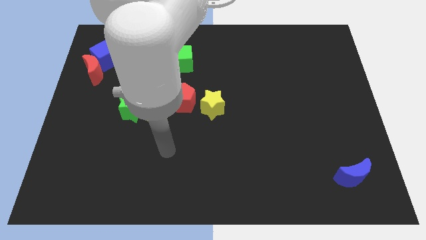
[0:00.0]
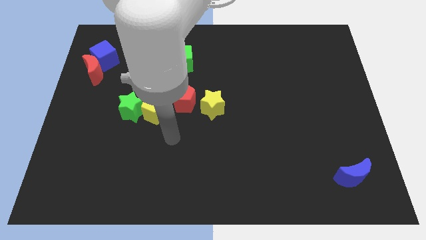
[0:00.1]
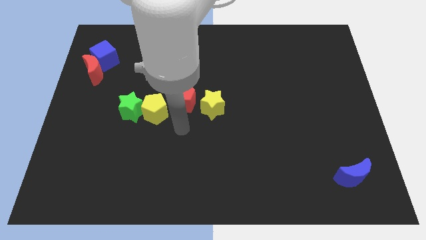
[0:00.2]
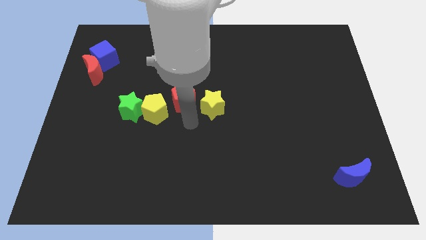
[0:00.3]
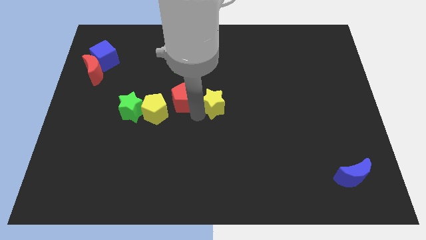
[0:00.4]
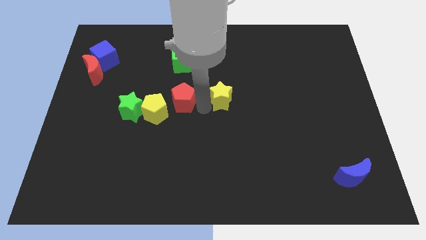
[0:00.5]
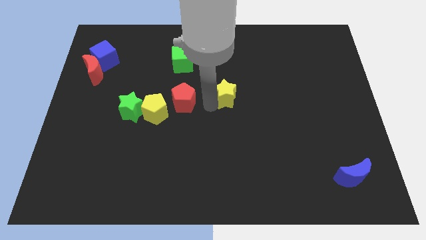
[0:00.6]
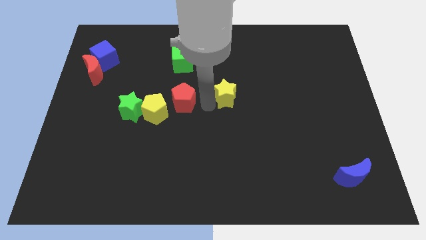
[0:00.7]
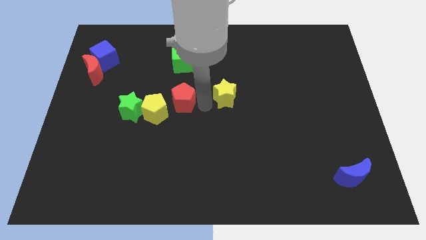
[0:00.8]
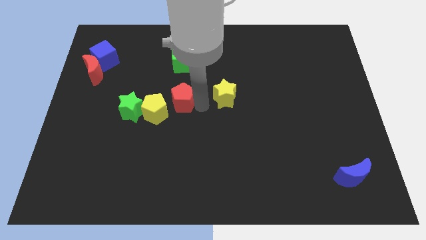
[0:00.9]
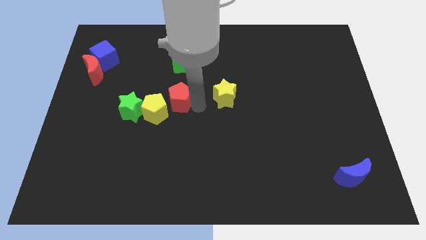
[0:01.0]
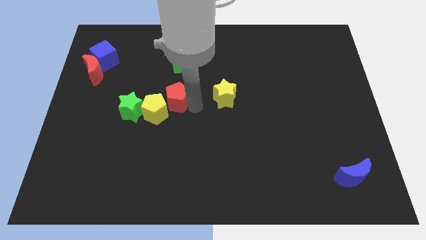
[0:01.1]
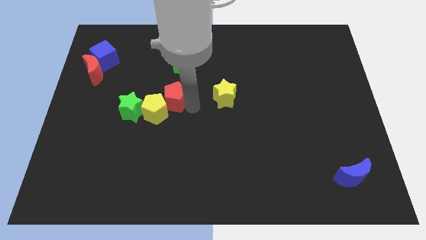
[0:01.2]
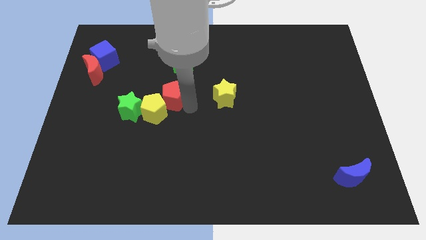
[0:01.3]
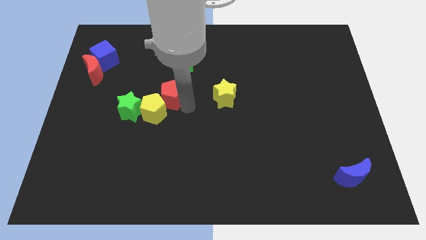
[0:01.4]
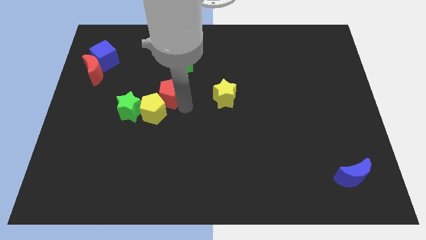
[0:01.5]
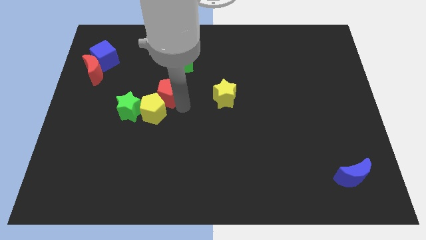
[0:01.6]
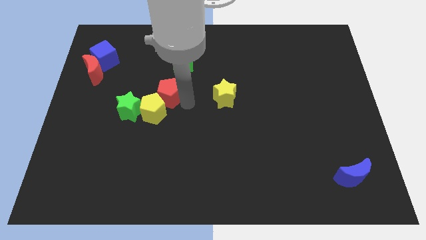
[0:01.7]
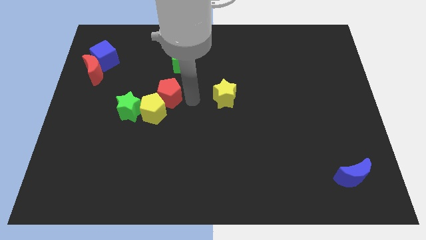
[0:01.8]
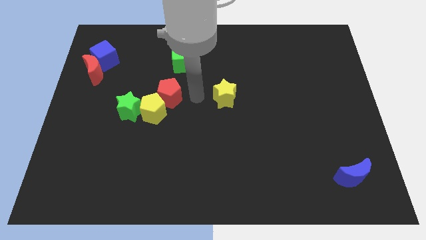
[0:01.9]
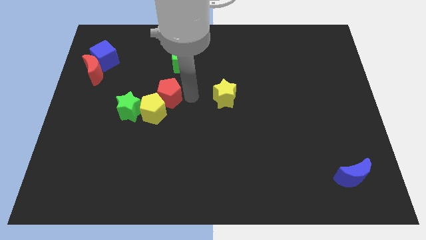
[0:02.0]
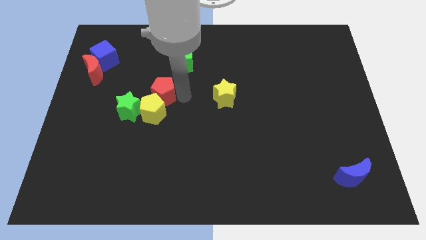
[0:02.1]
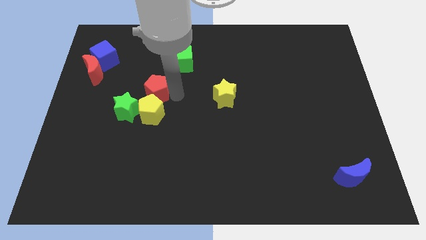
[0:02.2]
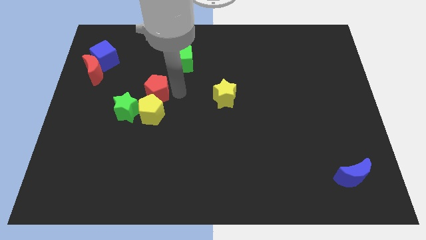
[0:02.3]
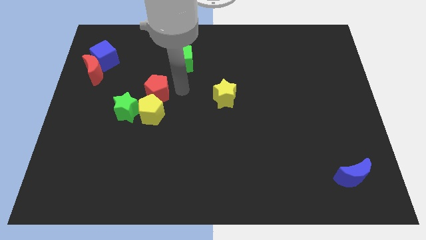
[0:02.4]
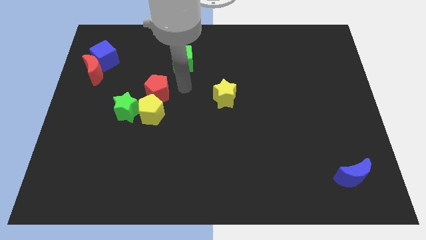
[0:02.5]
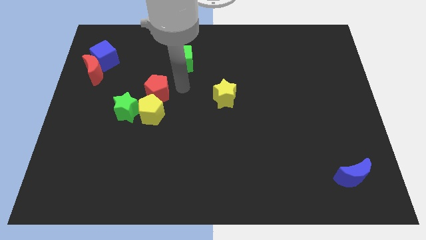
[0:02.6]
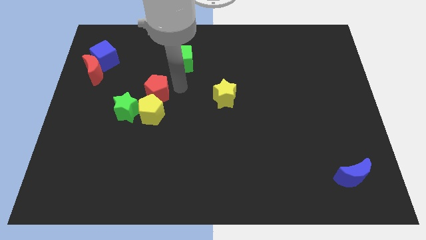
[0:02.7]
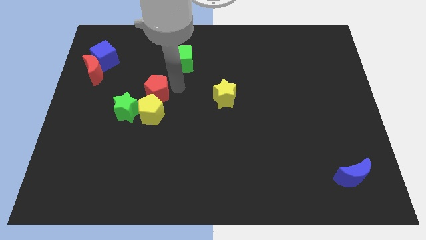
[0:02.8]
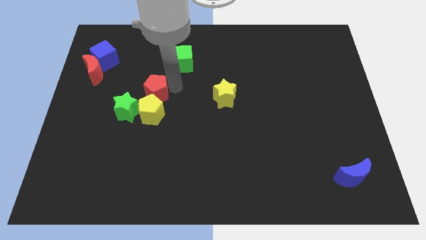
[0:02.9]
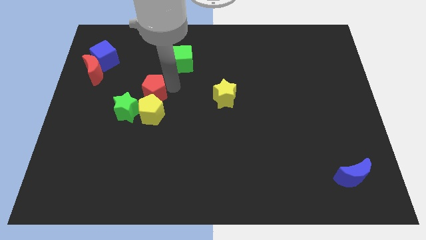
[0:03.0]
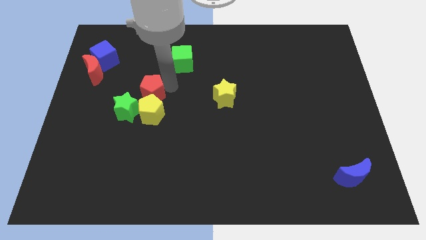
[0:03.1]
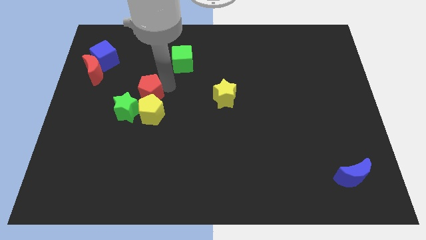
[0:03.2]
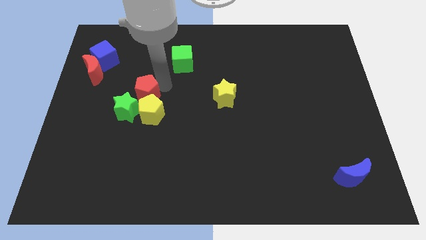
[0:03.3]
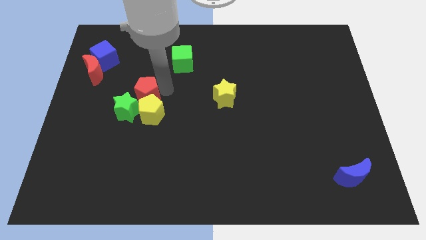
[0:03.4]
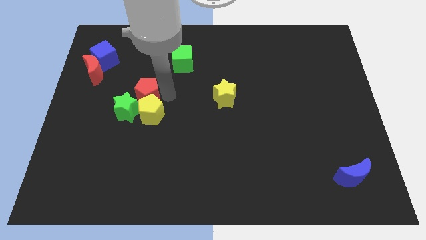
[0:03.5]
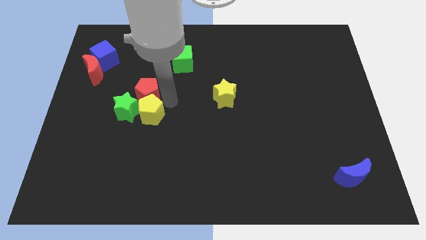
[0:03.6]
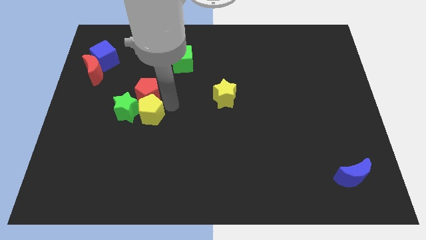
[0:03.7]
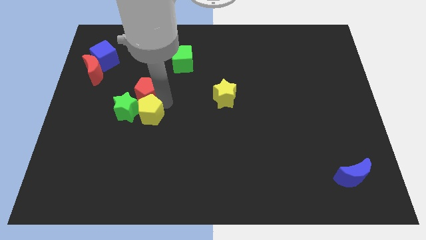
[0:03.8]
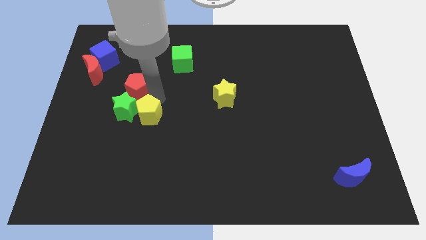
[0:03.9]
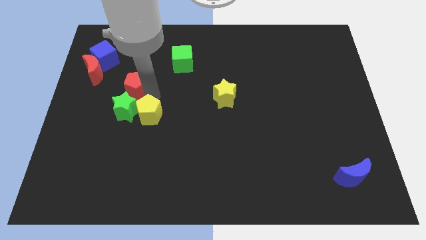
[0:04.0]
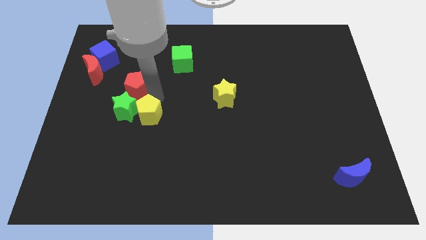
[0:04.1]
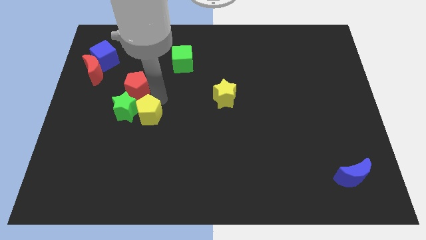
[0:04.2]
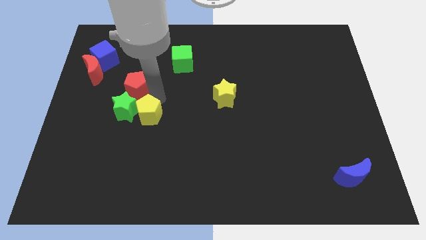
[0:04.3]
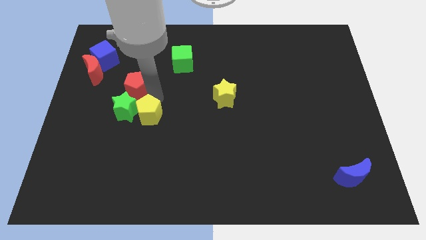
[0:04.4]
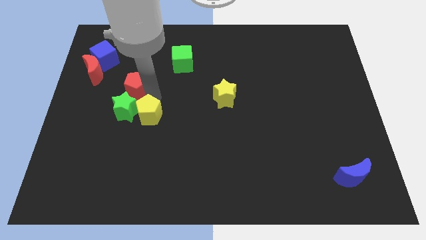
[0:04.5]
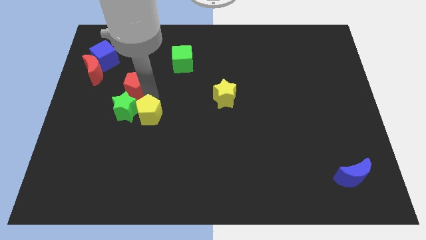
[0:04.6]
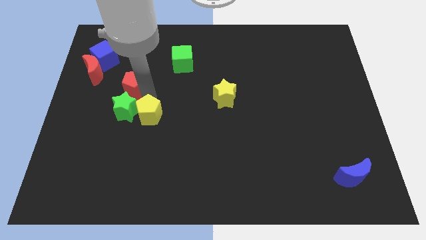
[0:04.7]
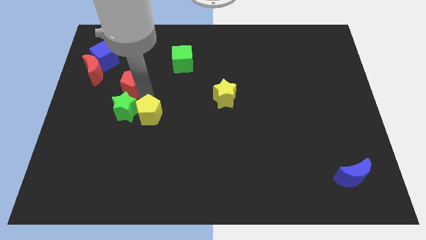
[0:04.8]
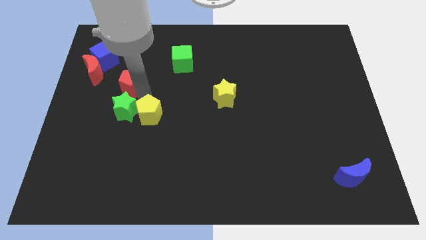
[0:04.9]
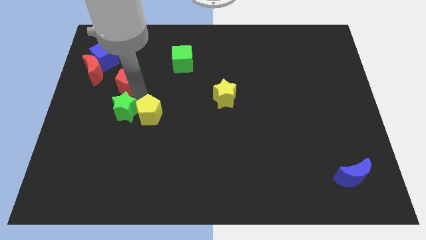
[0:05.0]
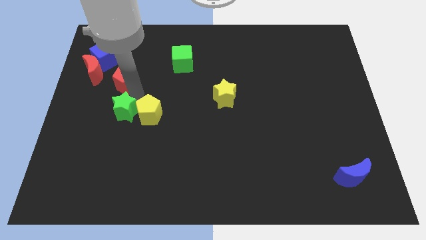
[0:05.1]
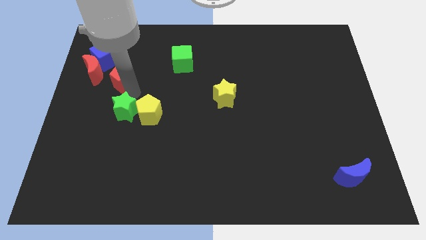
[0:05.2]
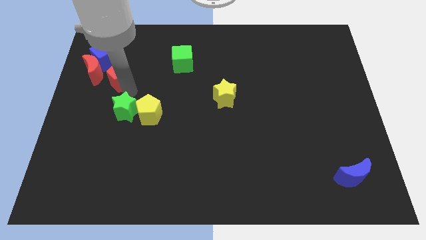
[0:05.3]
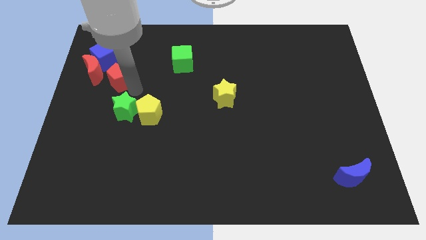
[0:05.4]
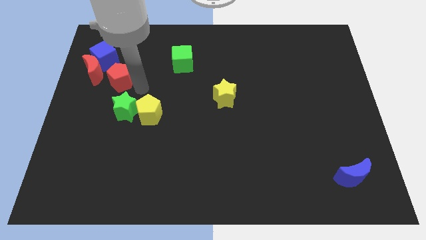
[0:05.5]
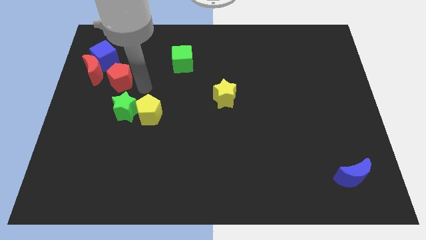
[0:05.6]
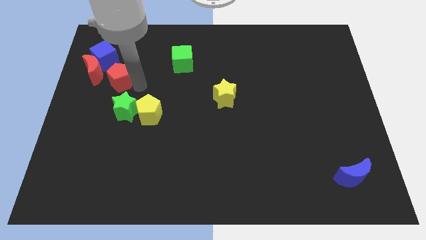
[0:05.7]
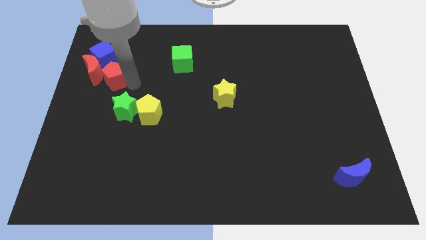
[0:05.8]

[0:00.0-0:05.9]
move the red pentagon close to the red moon

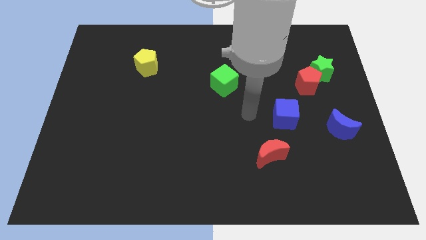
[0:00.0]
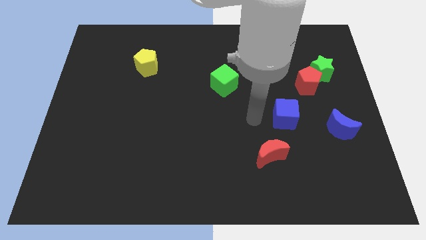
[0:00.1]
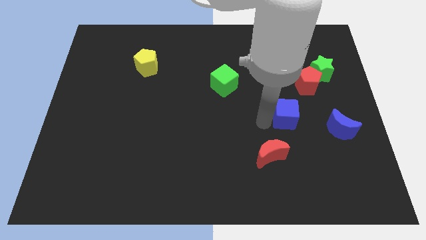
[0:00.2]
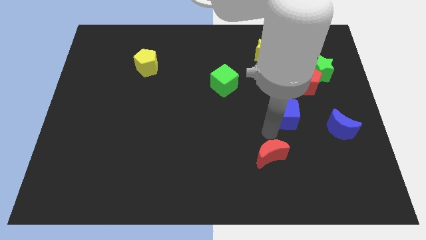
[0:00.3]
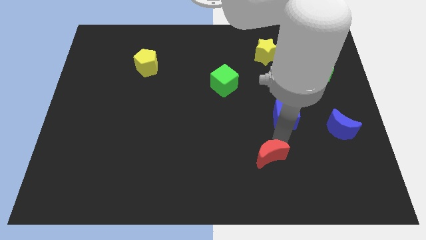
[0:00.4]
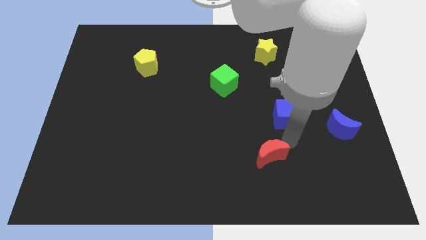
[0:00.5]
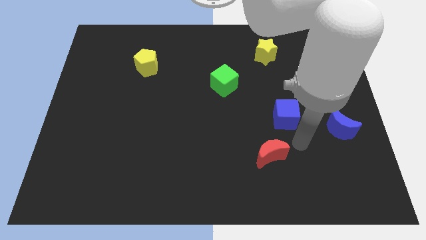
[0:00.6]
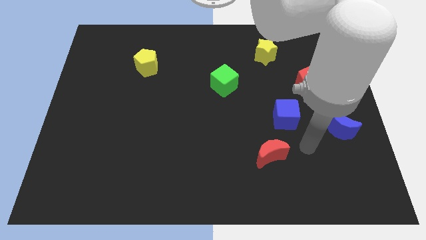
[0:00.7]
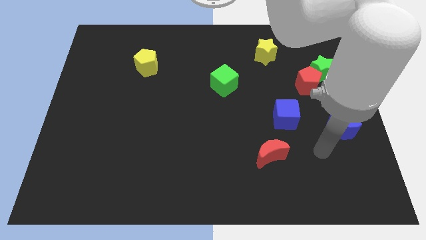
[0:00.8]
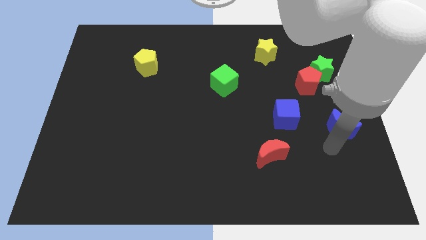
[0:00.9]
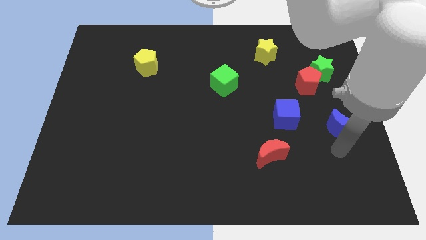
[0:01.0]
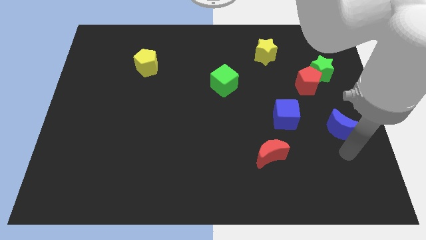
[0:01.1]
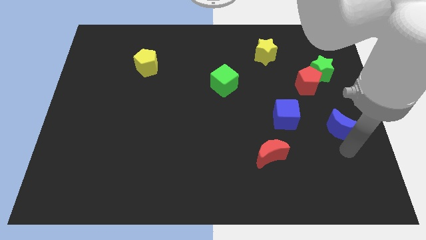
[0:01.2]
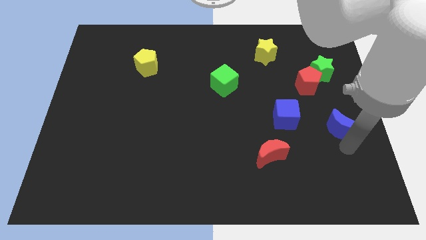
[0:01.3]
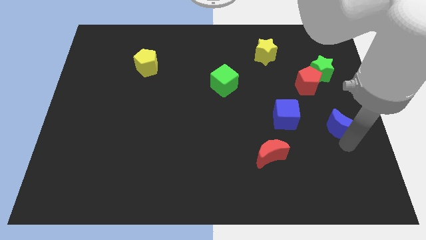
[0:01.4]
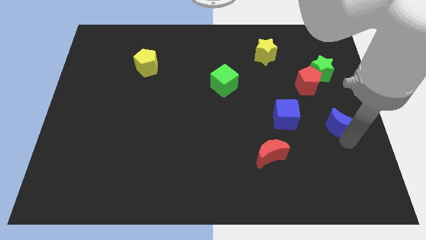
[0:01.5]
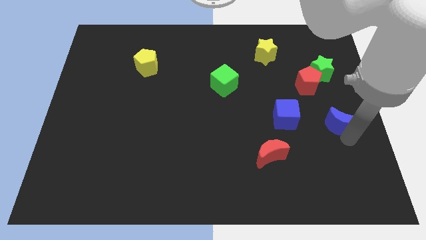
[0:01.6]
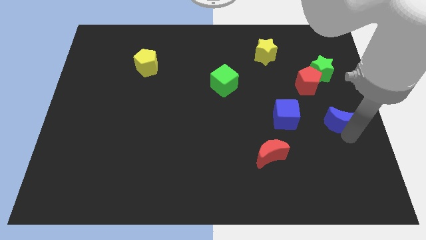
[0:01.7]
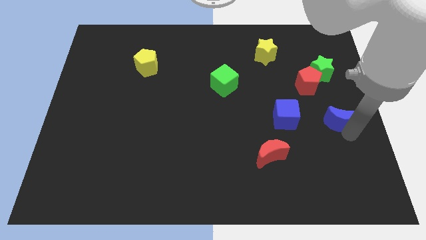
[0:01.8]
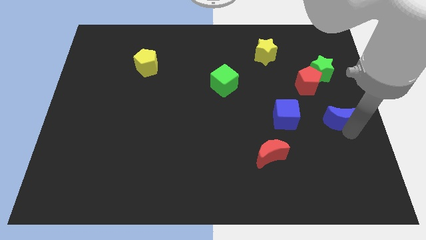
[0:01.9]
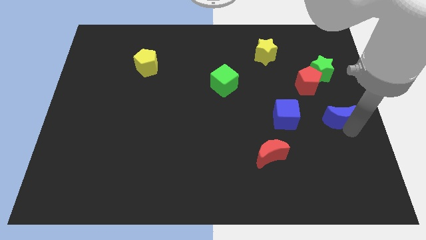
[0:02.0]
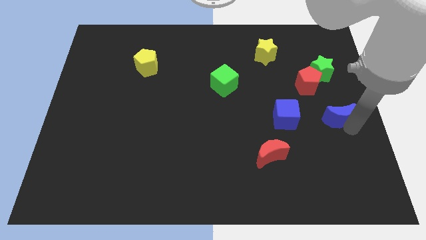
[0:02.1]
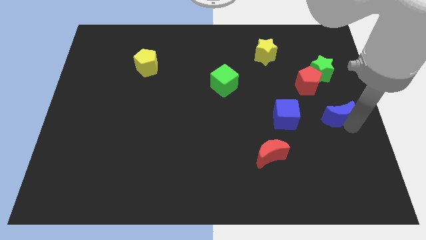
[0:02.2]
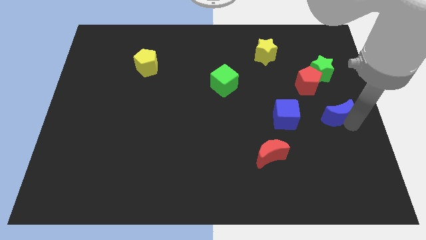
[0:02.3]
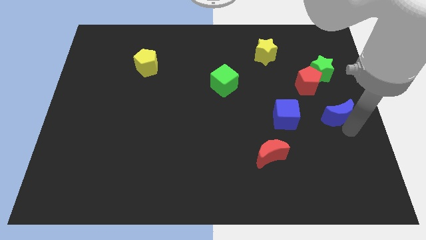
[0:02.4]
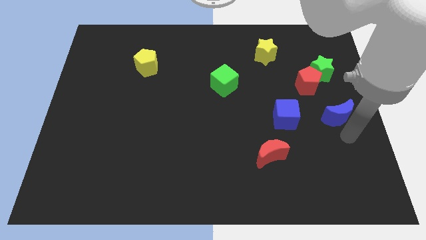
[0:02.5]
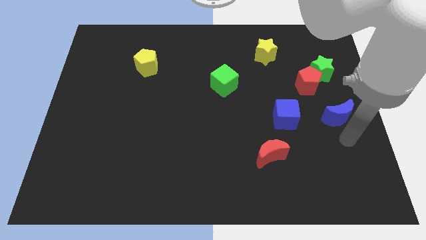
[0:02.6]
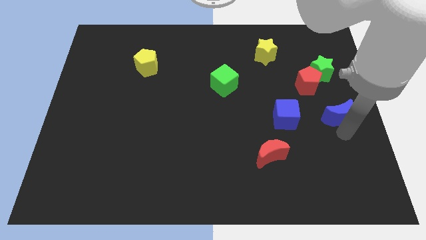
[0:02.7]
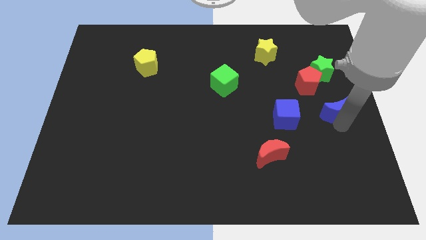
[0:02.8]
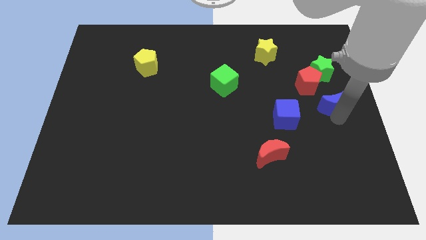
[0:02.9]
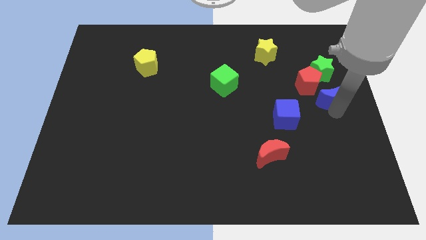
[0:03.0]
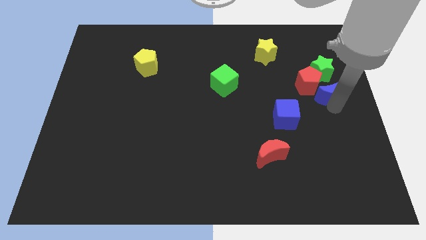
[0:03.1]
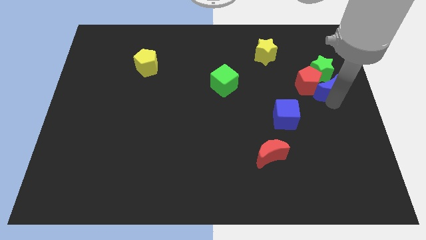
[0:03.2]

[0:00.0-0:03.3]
push the blue moon next to the green star
